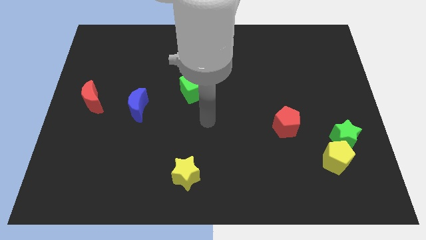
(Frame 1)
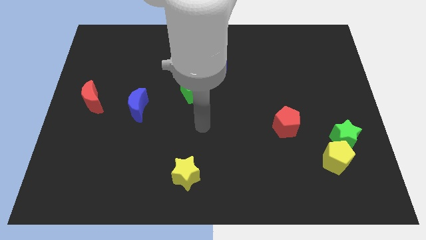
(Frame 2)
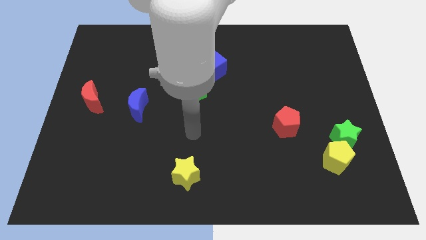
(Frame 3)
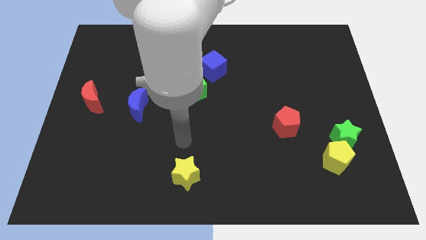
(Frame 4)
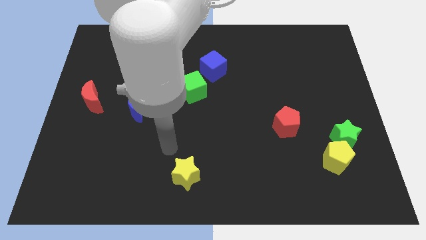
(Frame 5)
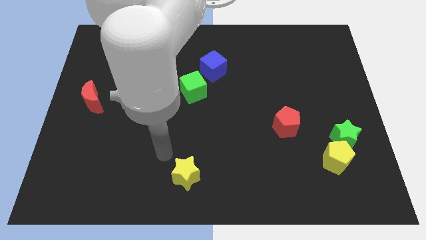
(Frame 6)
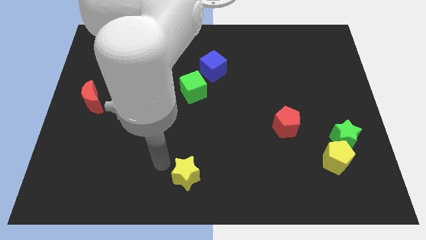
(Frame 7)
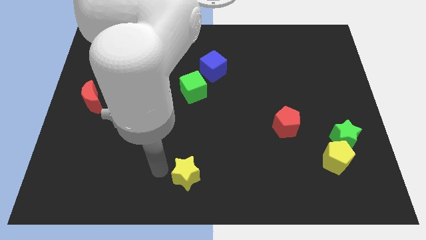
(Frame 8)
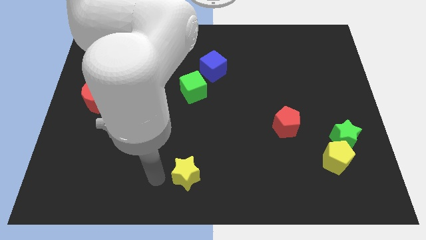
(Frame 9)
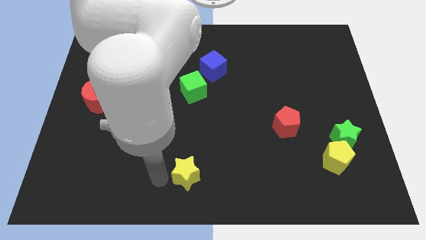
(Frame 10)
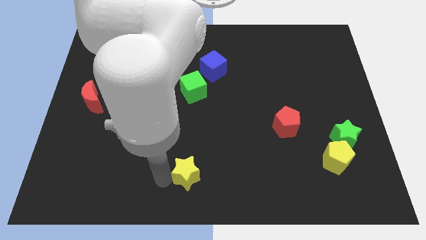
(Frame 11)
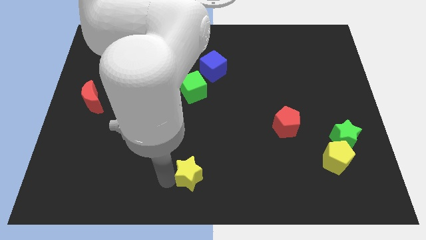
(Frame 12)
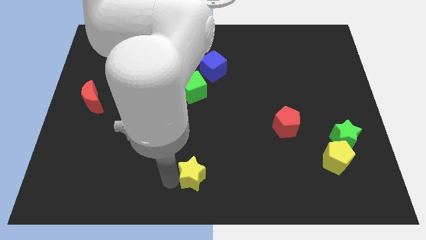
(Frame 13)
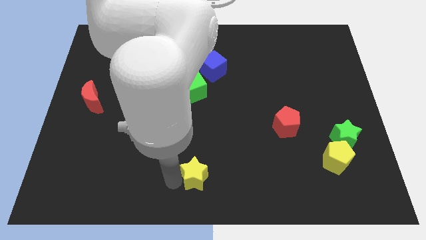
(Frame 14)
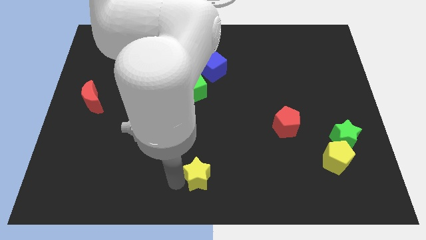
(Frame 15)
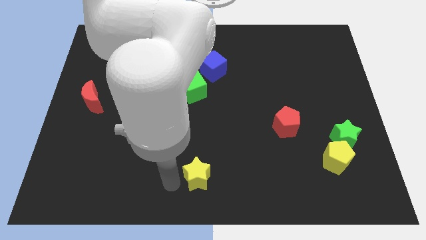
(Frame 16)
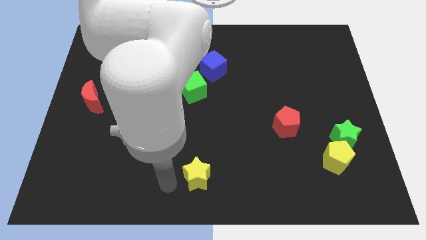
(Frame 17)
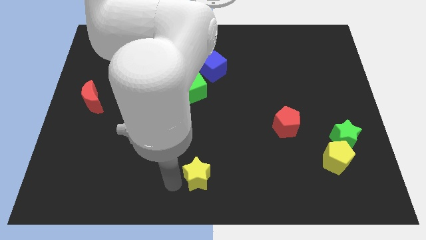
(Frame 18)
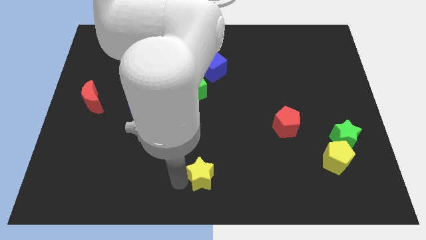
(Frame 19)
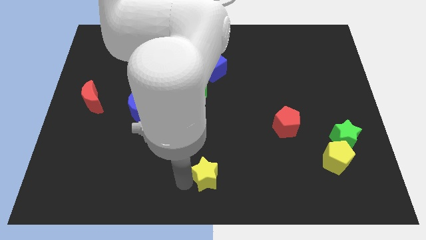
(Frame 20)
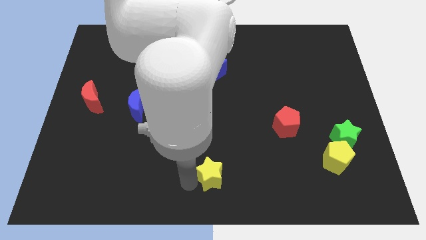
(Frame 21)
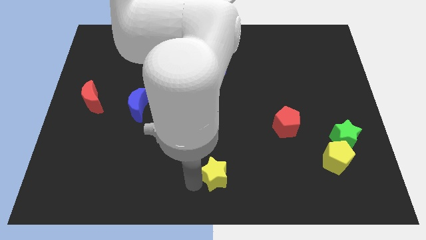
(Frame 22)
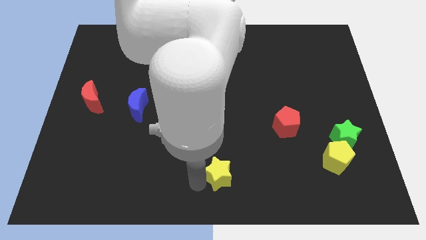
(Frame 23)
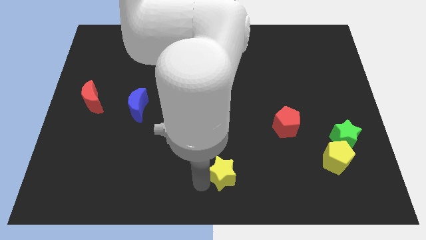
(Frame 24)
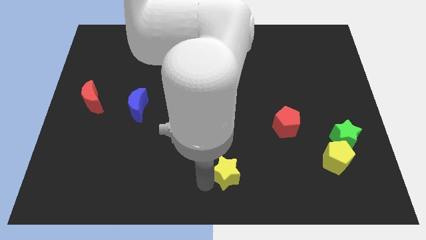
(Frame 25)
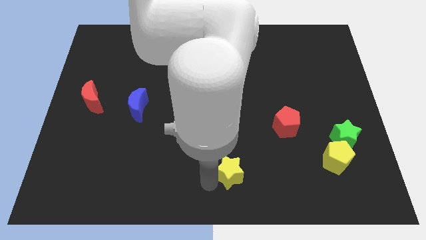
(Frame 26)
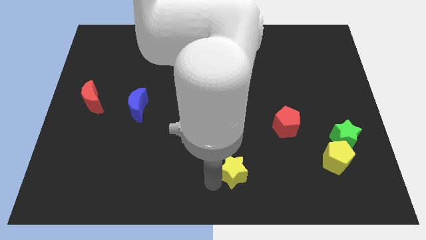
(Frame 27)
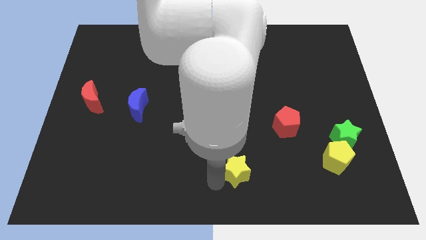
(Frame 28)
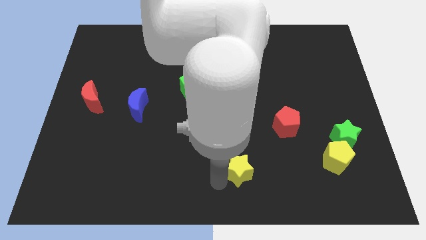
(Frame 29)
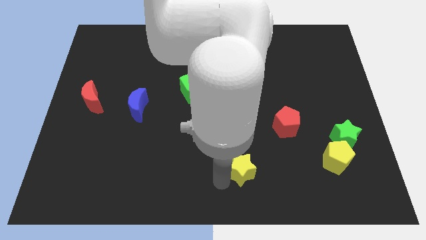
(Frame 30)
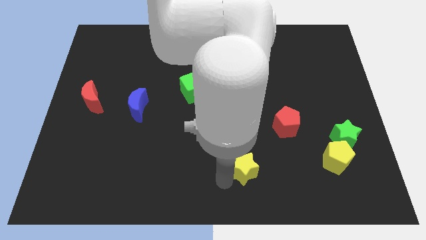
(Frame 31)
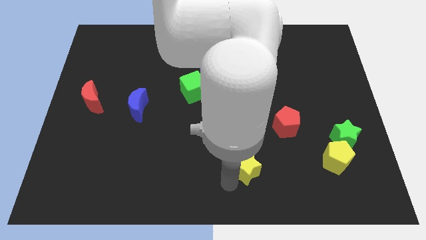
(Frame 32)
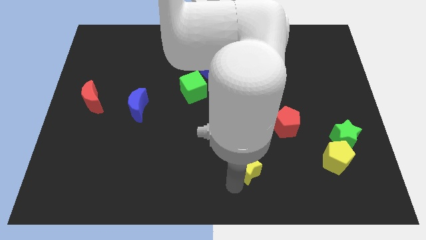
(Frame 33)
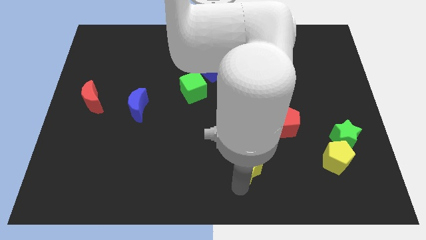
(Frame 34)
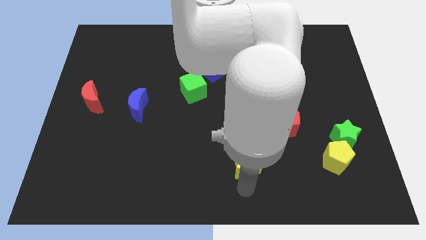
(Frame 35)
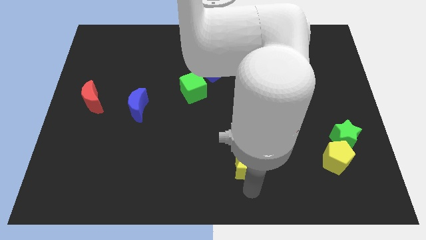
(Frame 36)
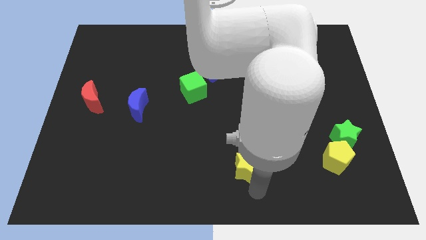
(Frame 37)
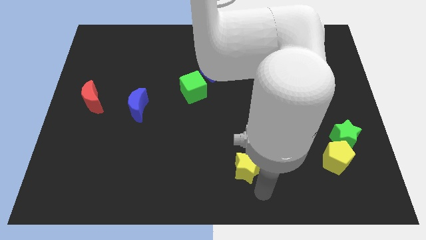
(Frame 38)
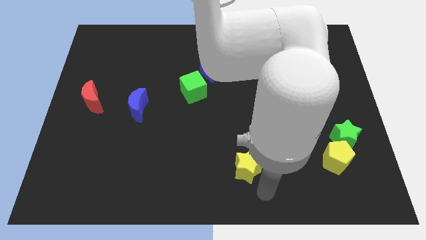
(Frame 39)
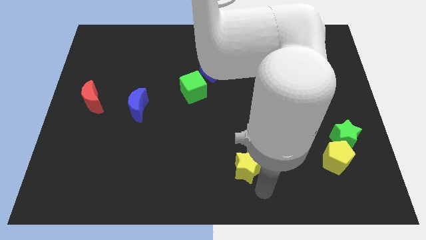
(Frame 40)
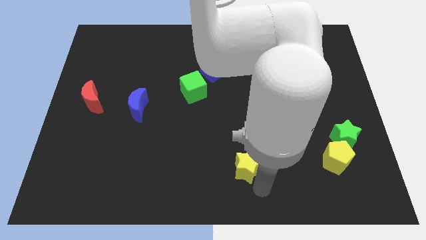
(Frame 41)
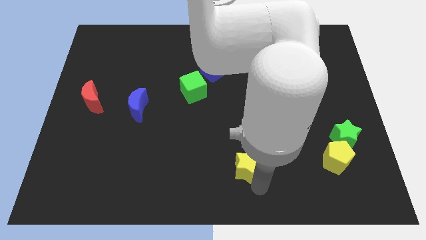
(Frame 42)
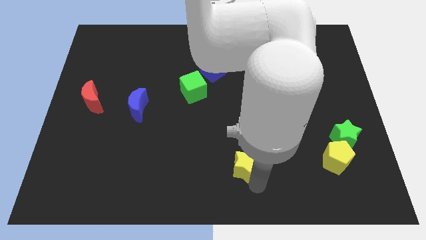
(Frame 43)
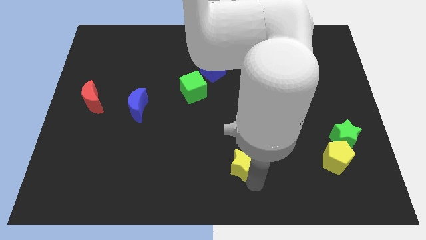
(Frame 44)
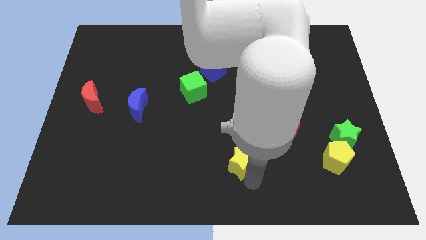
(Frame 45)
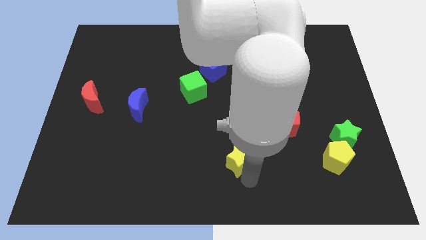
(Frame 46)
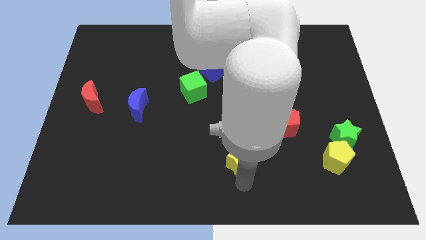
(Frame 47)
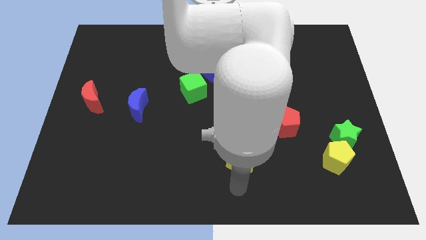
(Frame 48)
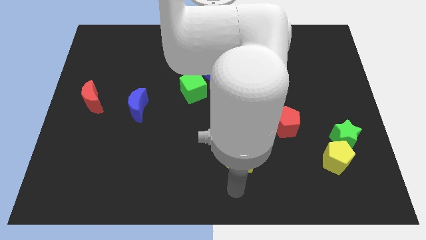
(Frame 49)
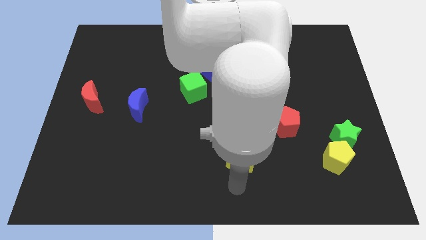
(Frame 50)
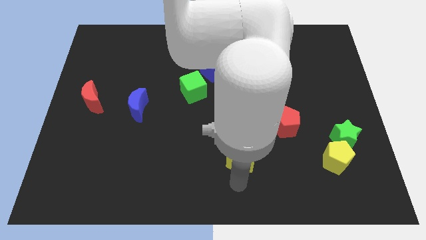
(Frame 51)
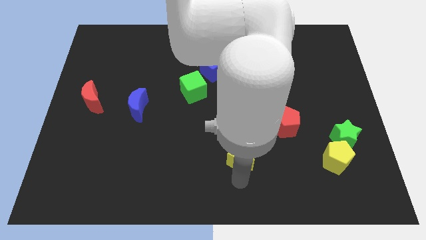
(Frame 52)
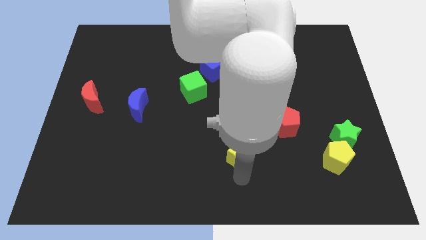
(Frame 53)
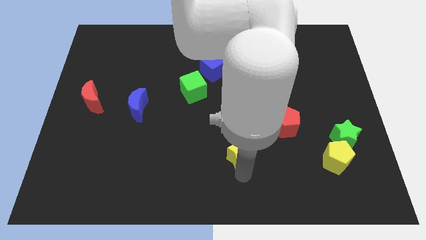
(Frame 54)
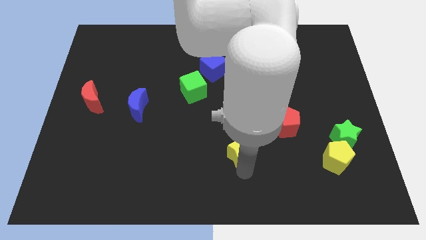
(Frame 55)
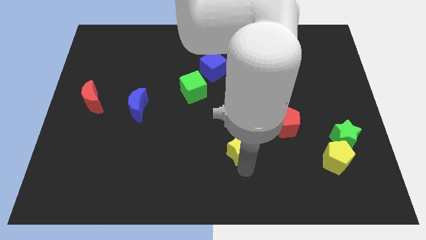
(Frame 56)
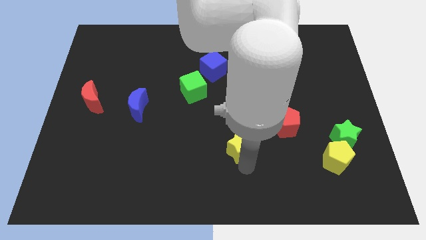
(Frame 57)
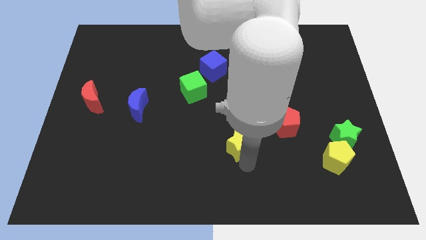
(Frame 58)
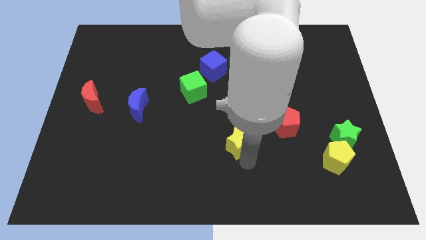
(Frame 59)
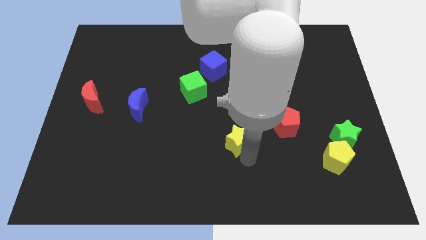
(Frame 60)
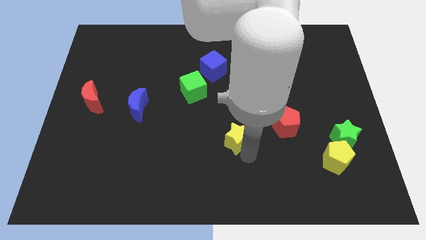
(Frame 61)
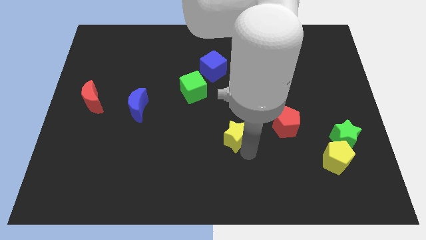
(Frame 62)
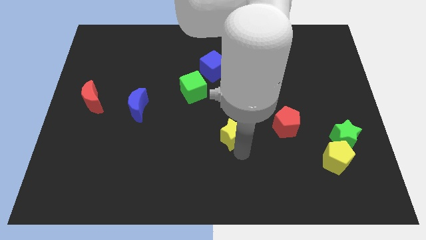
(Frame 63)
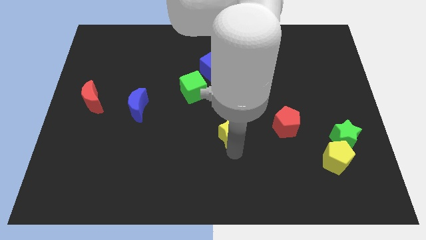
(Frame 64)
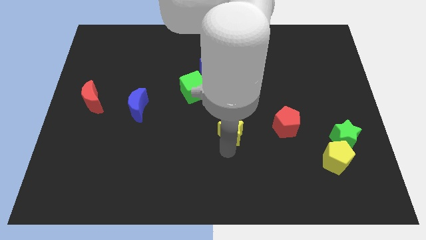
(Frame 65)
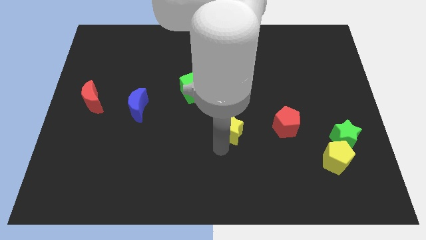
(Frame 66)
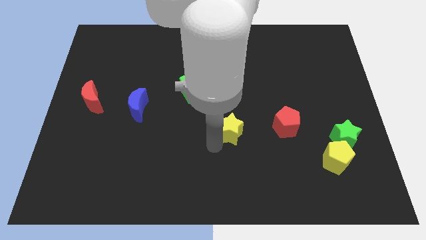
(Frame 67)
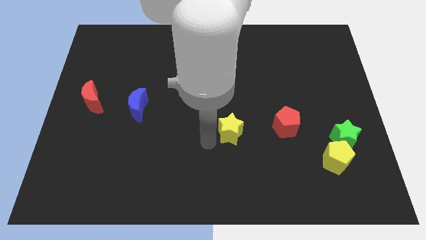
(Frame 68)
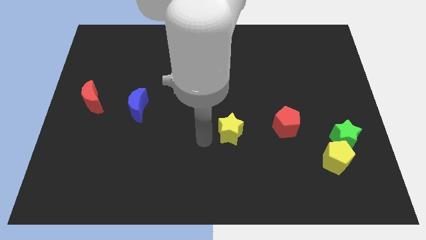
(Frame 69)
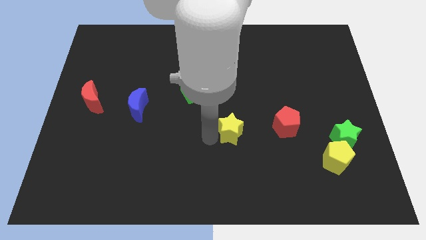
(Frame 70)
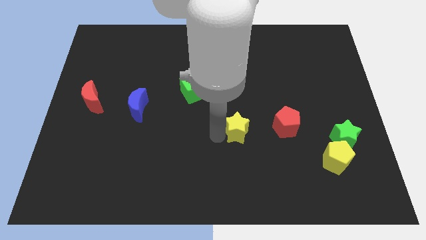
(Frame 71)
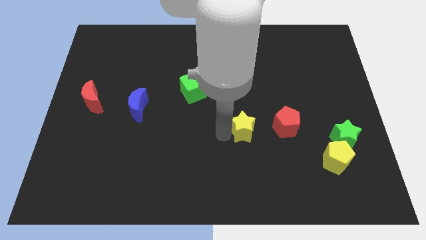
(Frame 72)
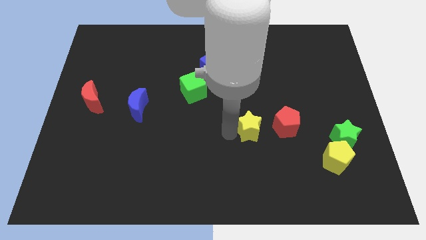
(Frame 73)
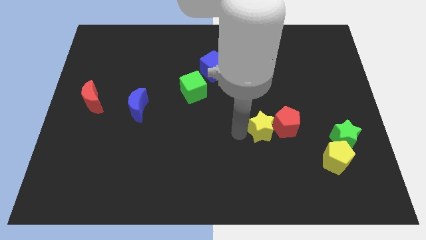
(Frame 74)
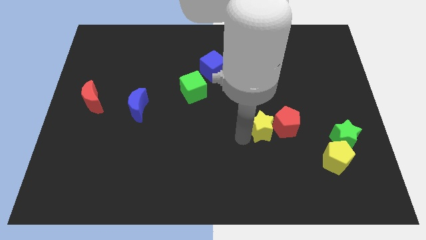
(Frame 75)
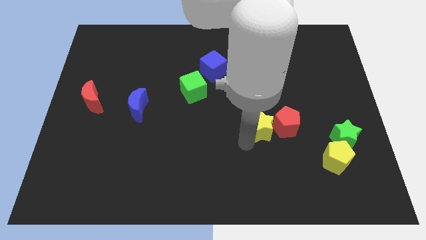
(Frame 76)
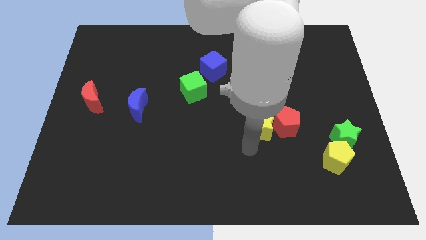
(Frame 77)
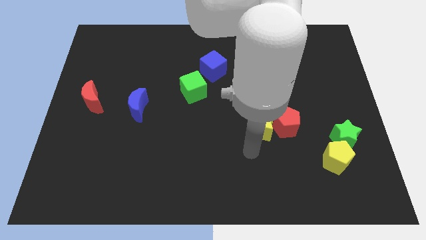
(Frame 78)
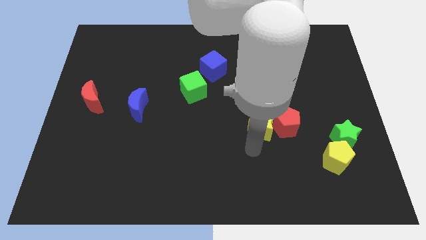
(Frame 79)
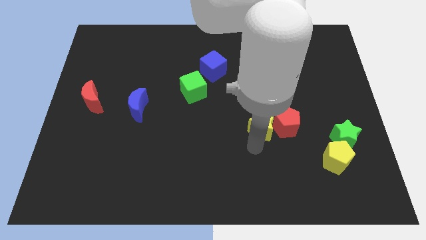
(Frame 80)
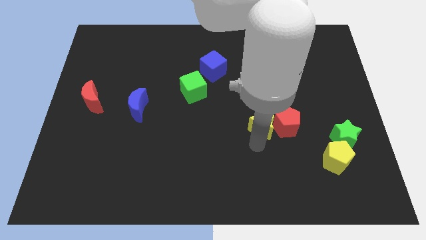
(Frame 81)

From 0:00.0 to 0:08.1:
move the yellow star upwards and then to the right
